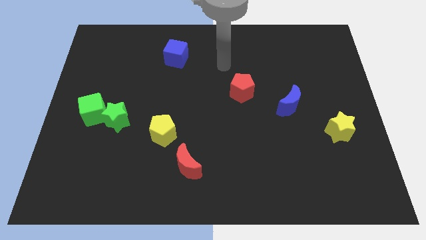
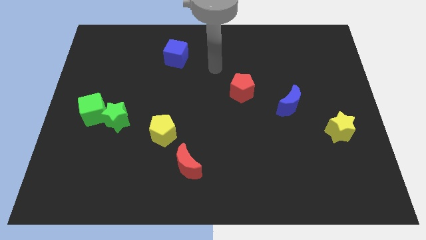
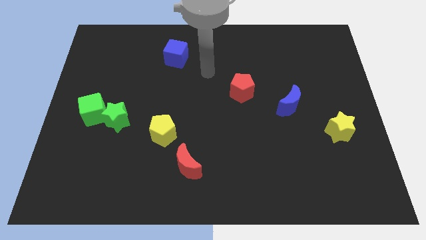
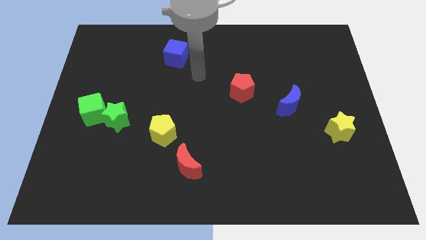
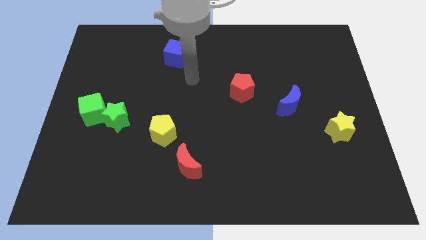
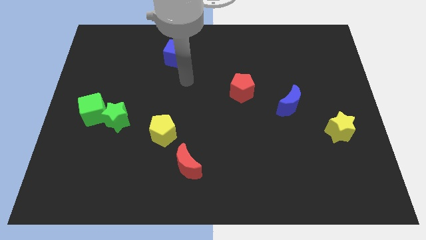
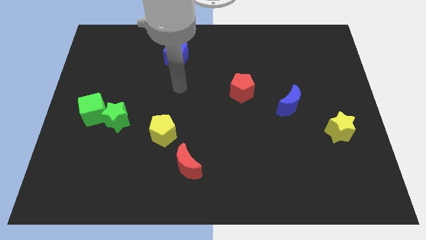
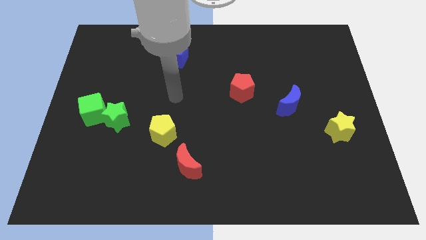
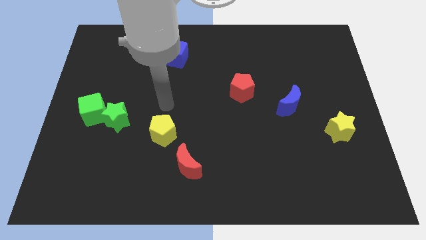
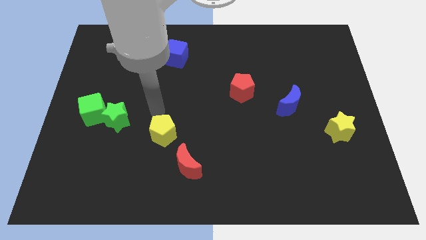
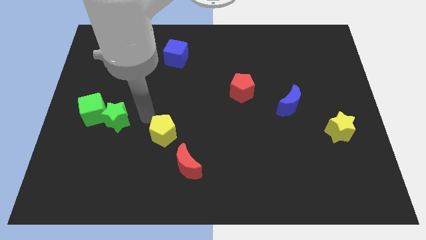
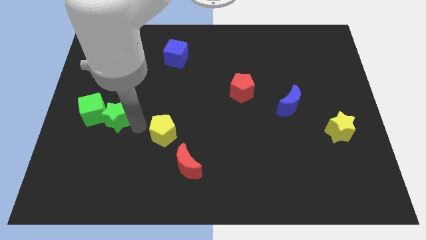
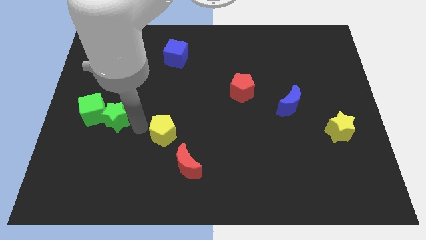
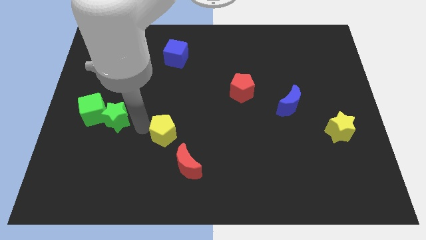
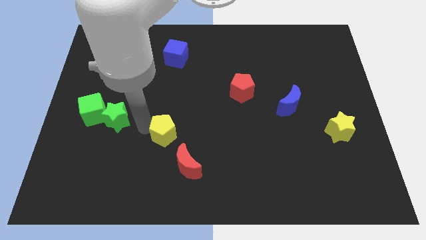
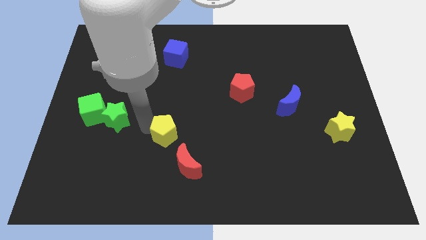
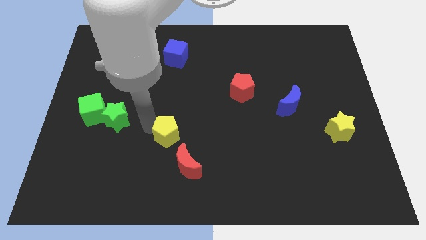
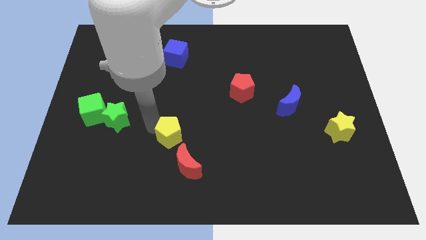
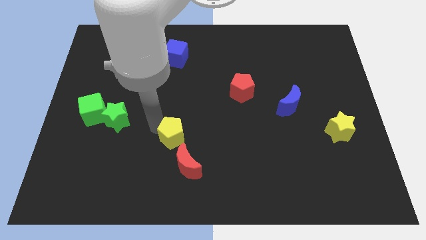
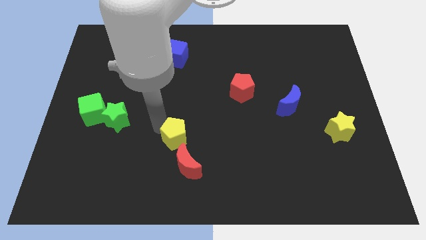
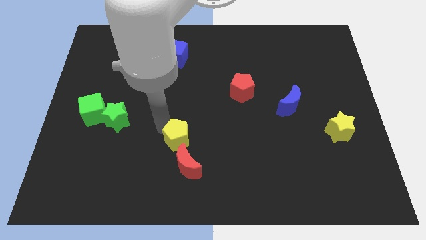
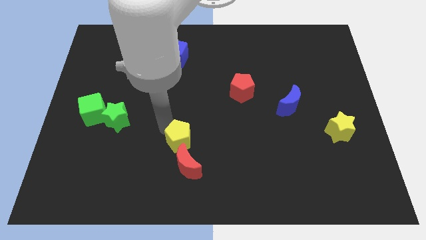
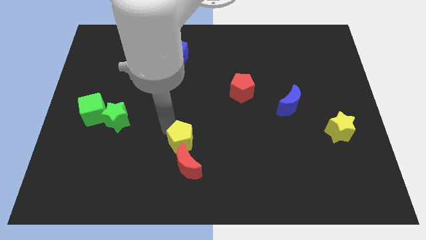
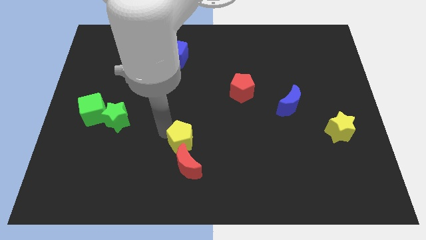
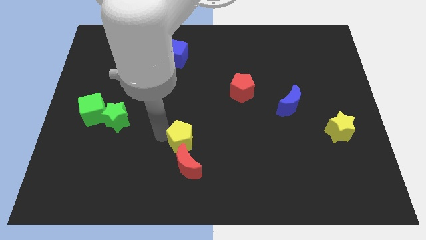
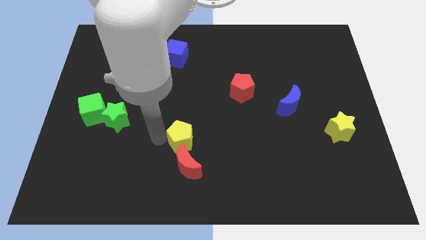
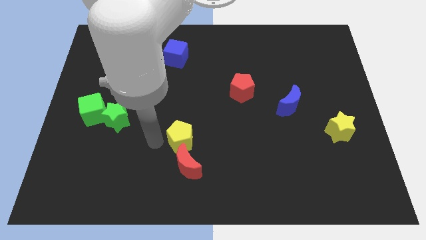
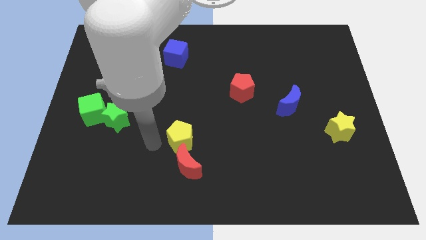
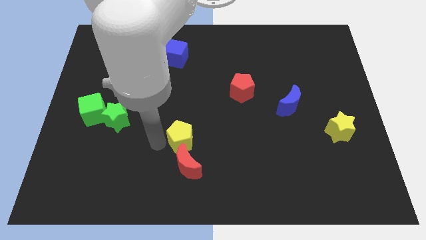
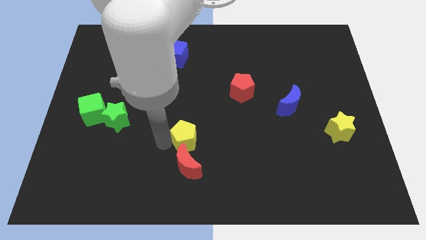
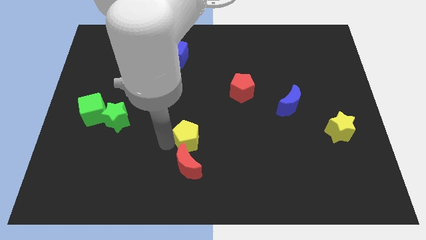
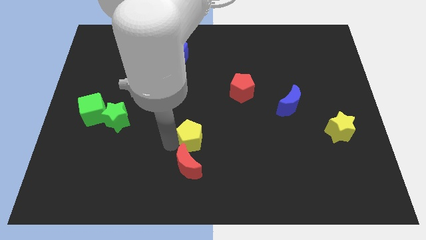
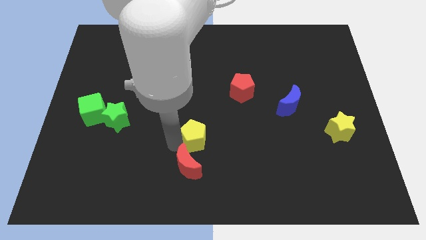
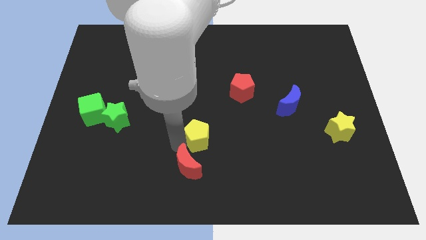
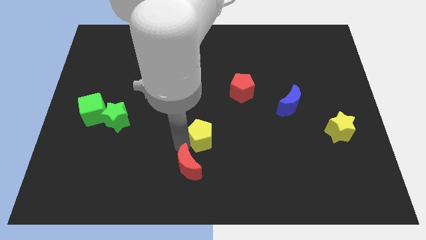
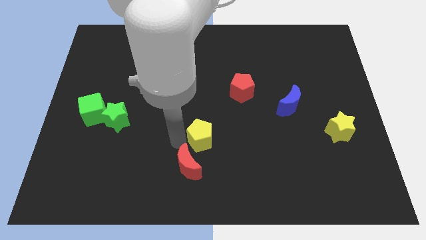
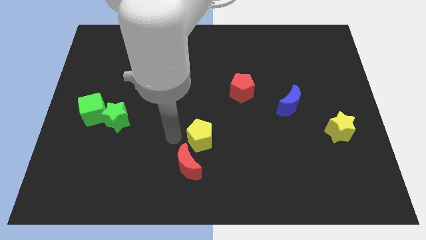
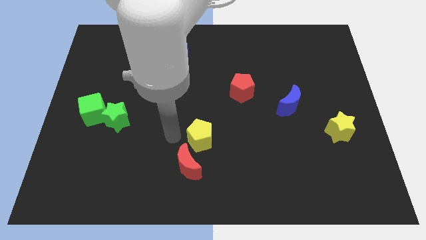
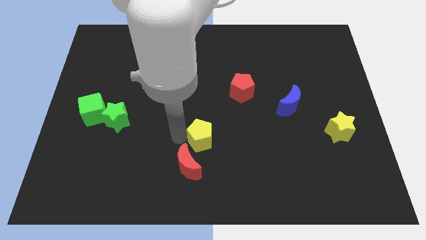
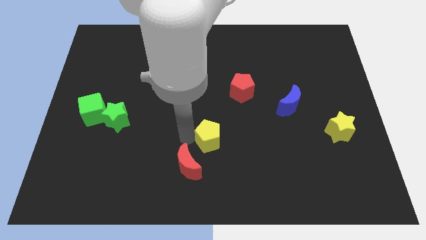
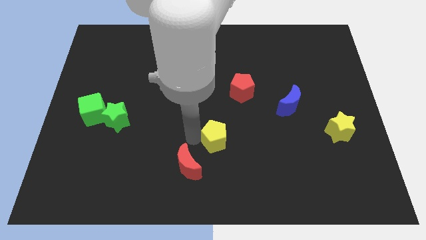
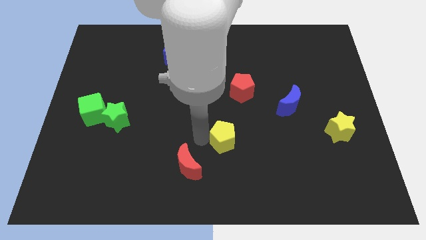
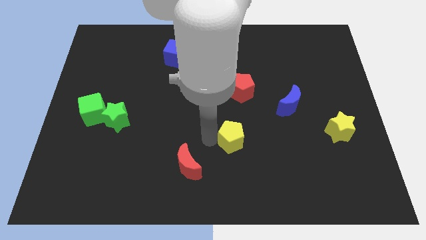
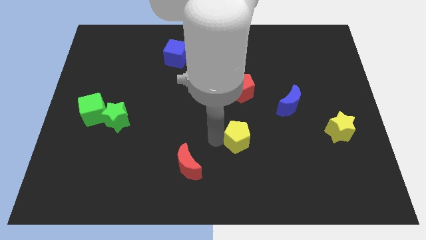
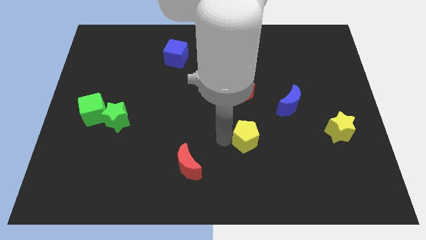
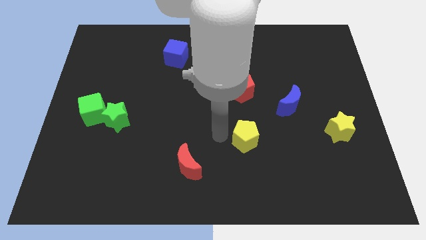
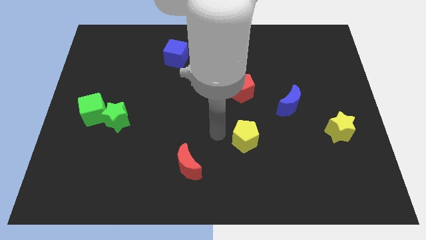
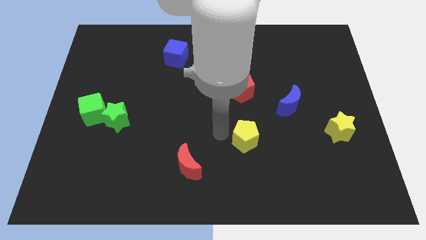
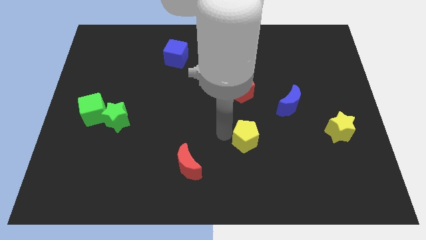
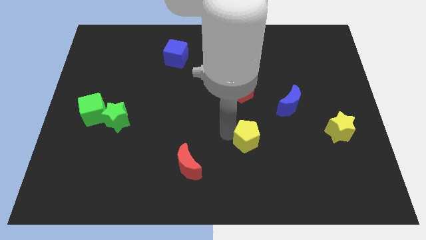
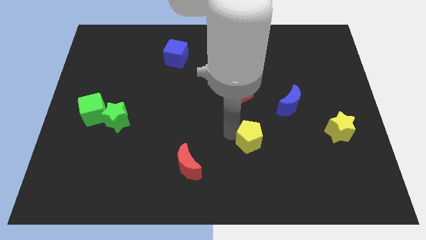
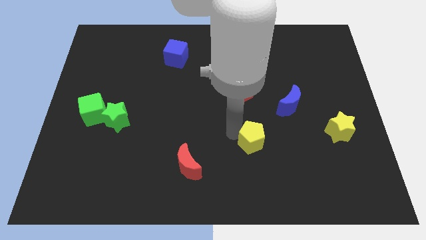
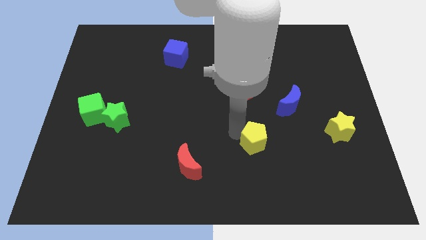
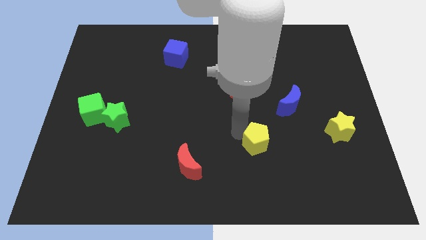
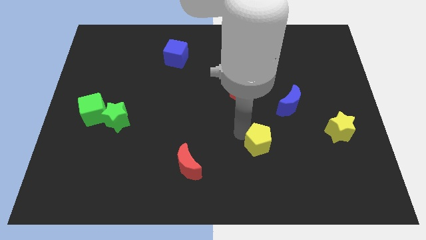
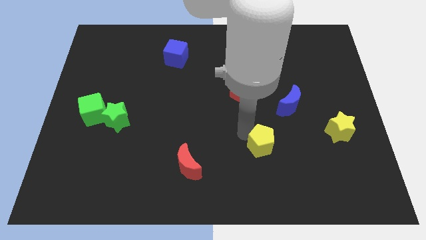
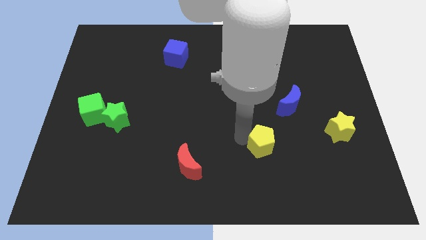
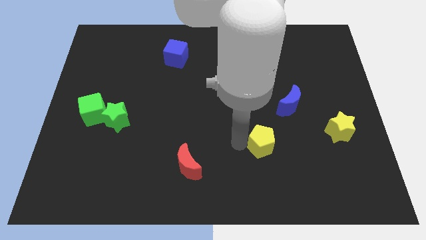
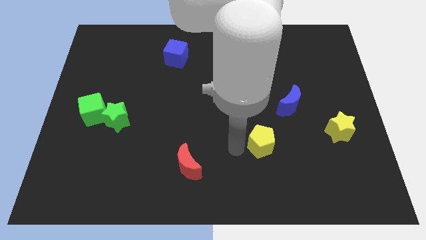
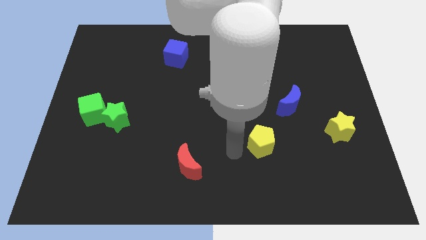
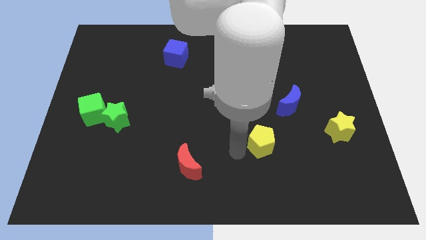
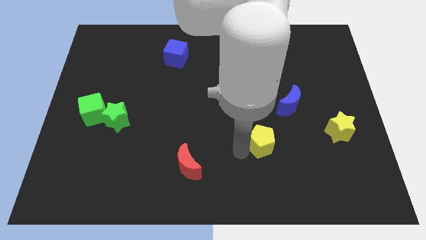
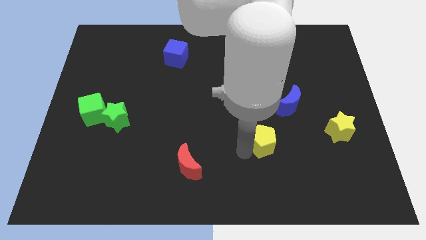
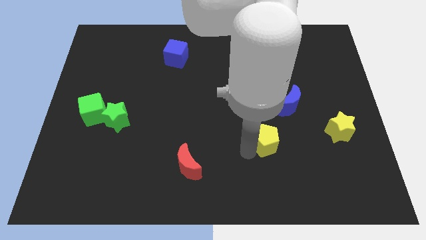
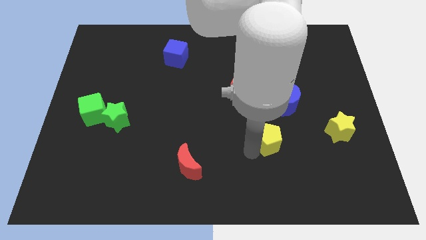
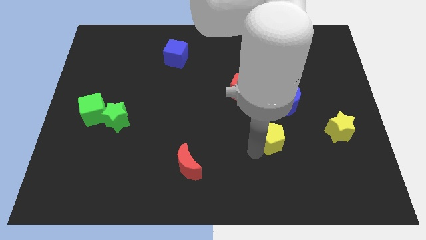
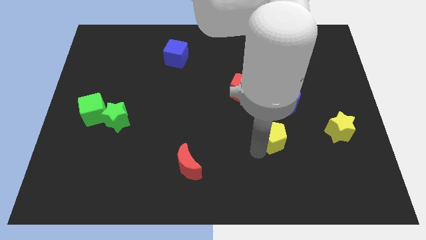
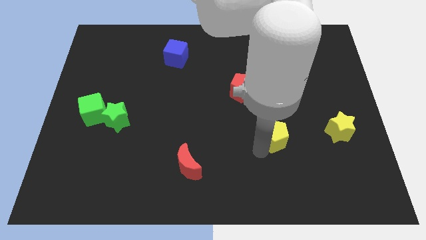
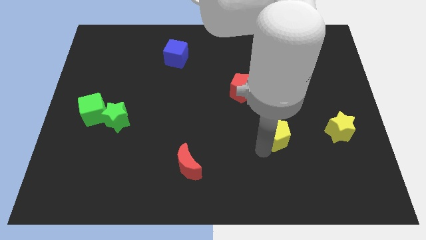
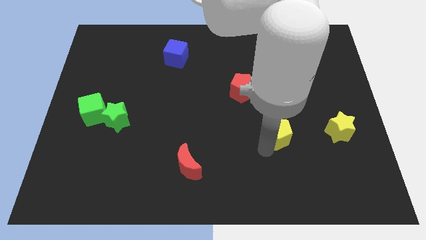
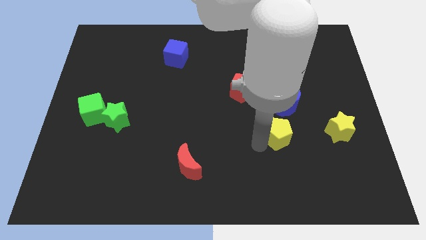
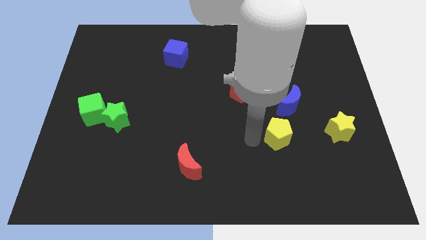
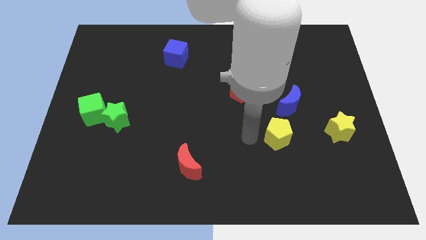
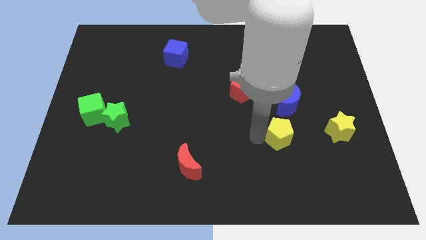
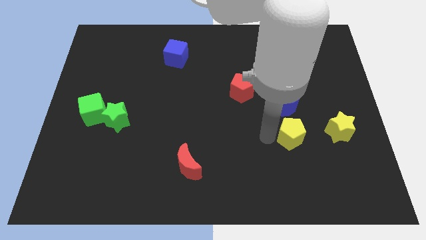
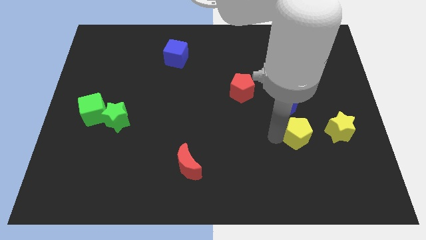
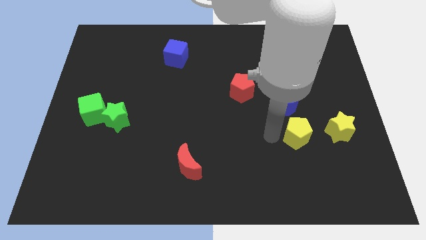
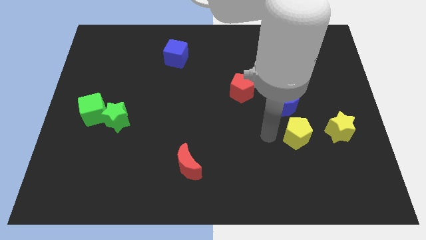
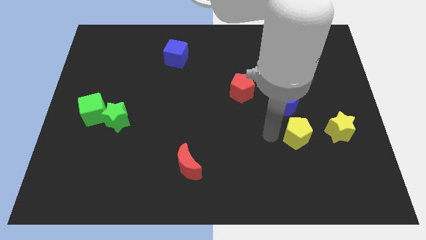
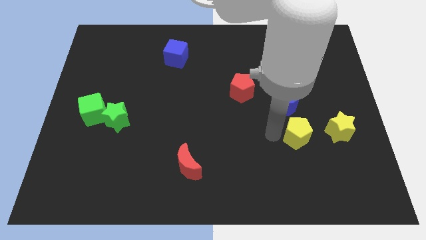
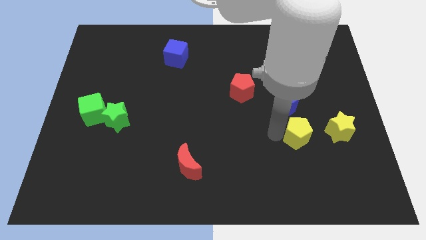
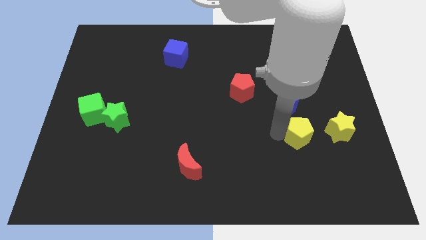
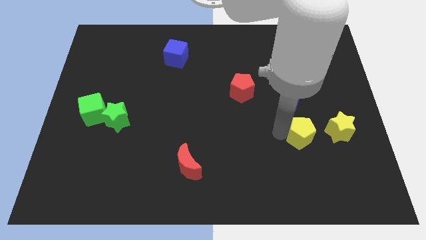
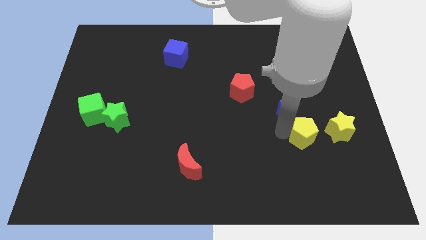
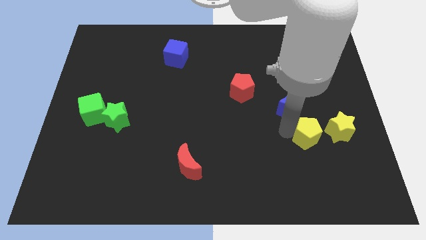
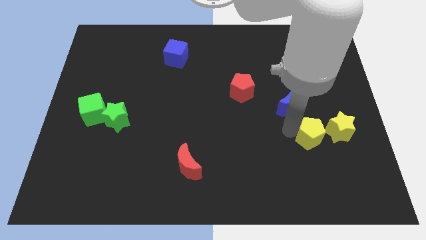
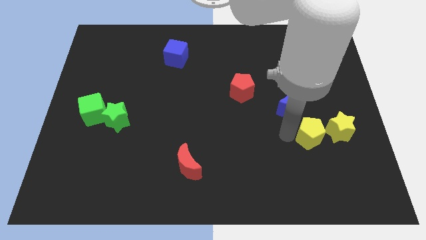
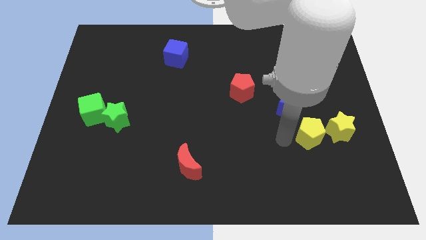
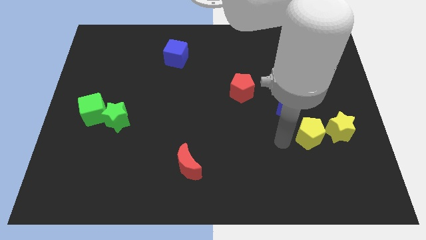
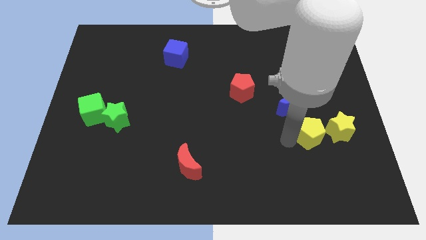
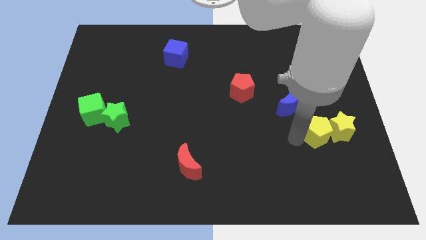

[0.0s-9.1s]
slide the yellow pentagon close to the yellow star
